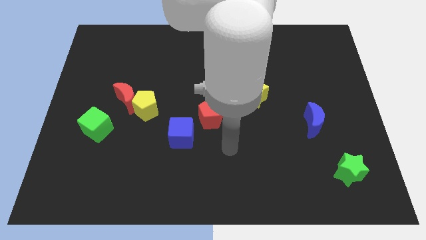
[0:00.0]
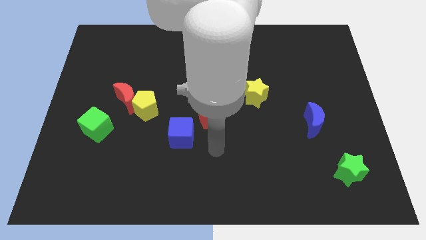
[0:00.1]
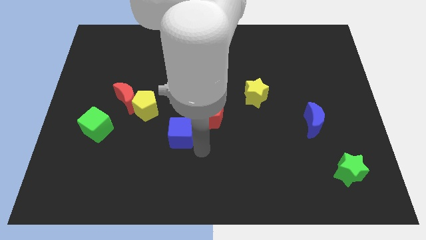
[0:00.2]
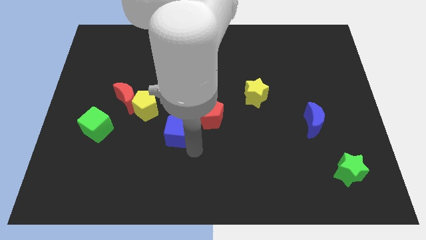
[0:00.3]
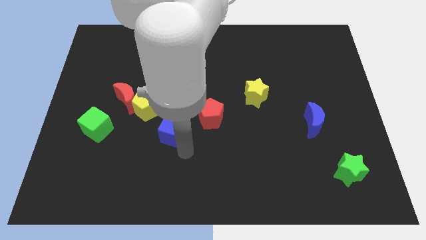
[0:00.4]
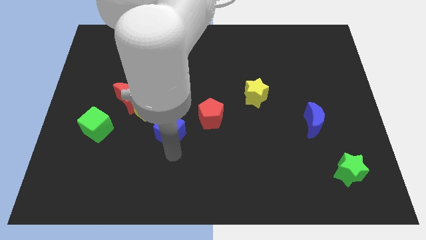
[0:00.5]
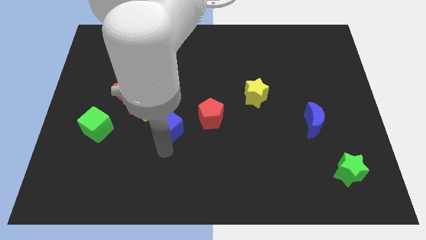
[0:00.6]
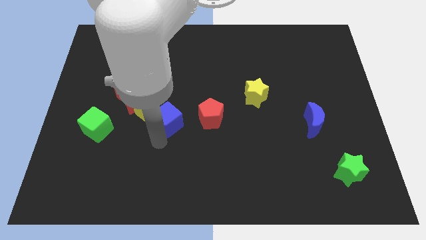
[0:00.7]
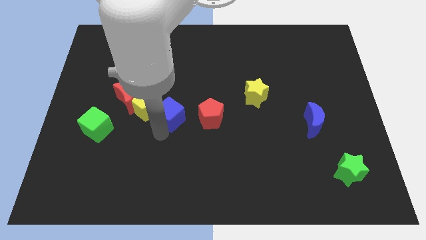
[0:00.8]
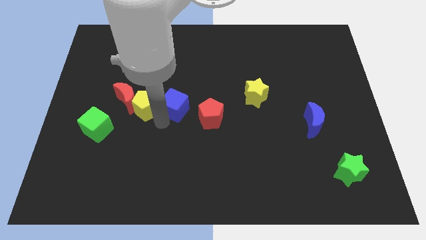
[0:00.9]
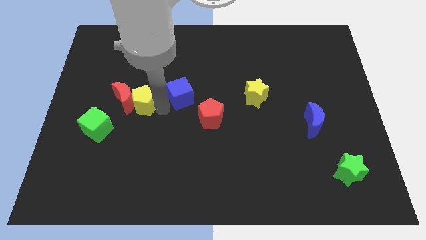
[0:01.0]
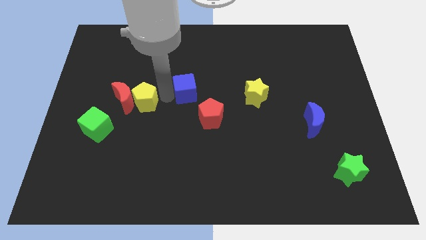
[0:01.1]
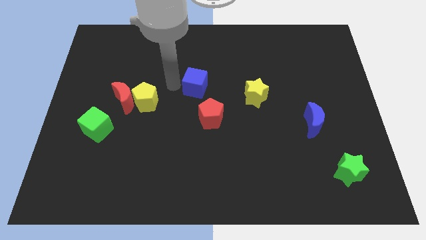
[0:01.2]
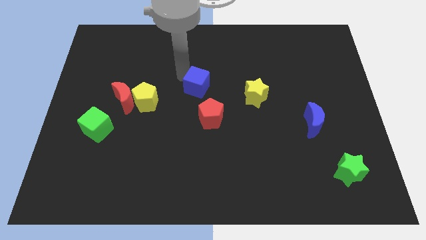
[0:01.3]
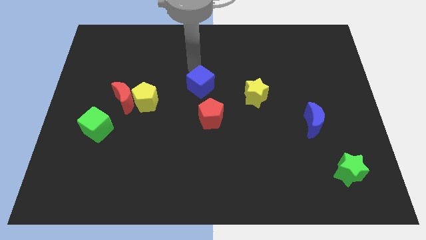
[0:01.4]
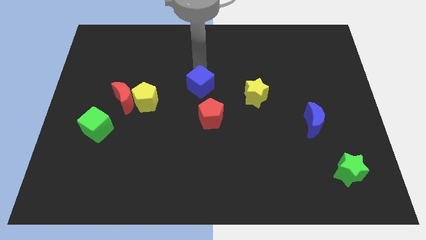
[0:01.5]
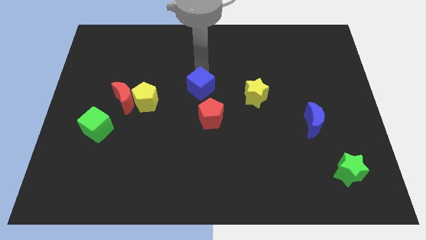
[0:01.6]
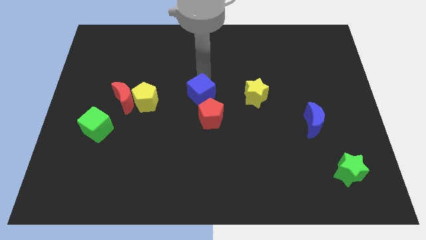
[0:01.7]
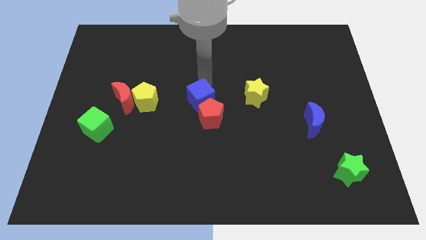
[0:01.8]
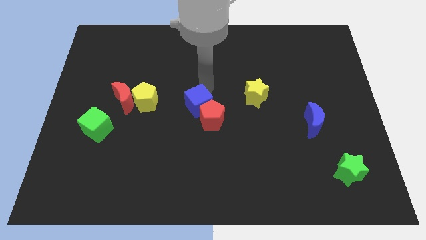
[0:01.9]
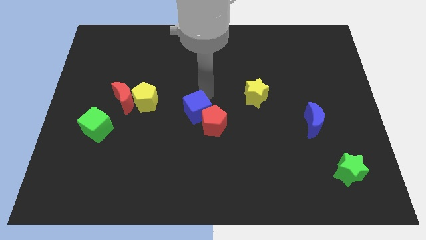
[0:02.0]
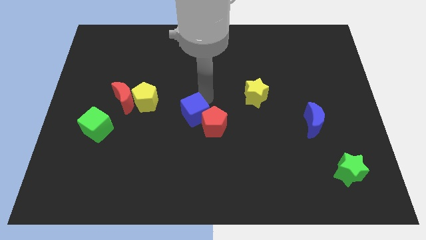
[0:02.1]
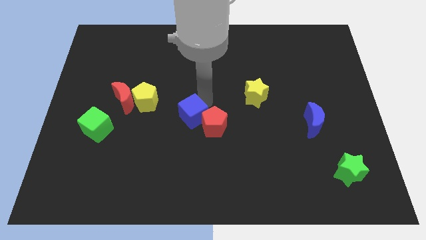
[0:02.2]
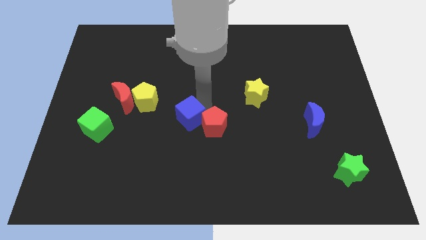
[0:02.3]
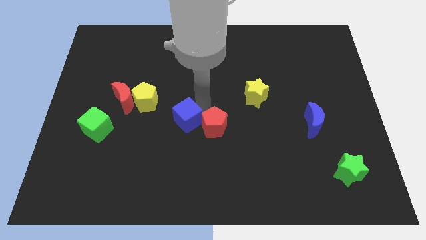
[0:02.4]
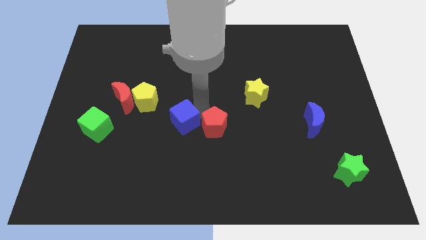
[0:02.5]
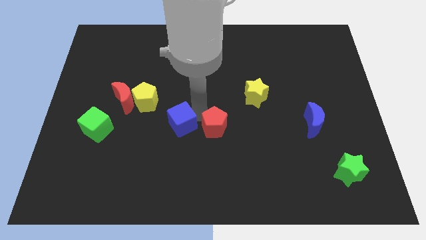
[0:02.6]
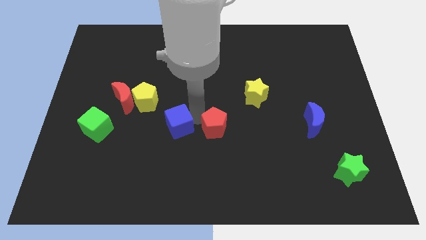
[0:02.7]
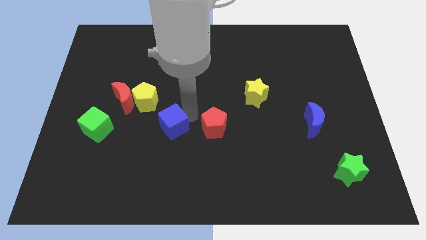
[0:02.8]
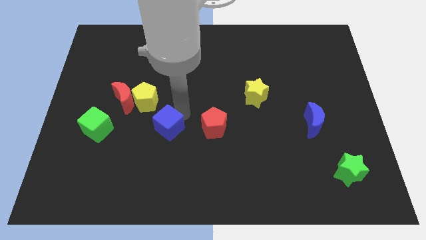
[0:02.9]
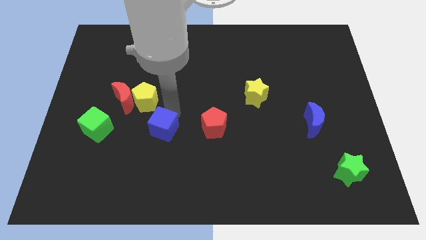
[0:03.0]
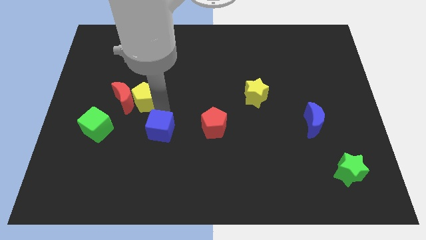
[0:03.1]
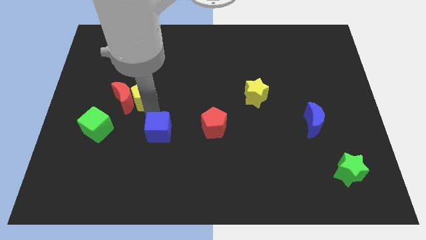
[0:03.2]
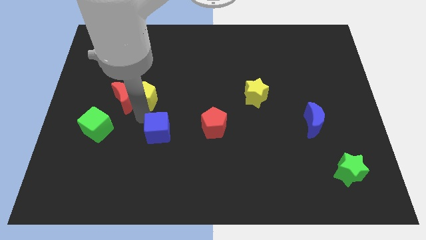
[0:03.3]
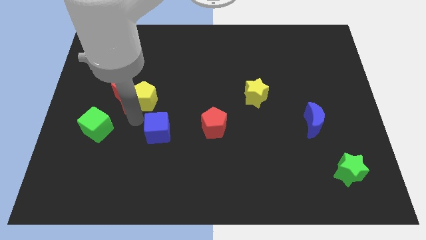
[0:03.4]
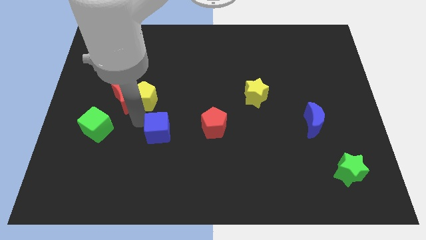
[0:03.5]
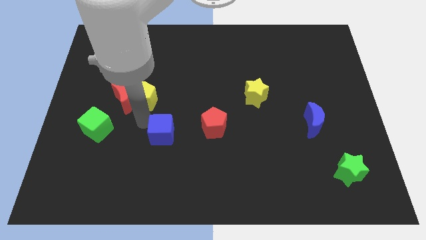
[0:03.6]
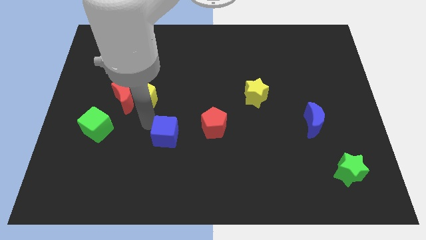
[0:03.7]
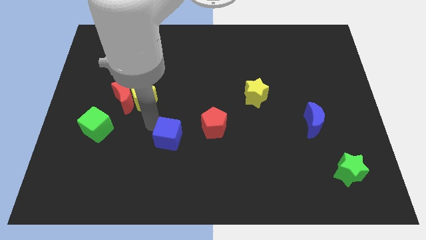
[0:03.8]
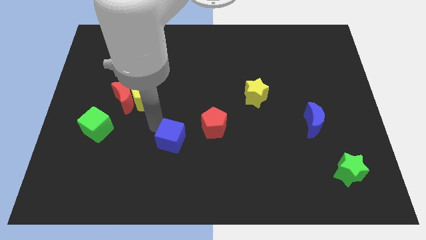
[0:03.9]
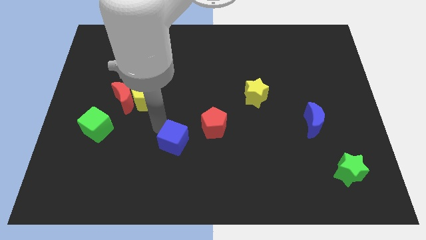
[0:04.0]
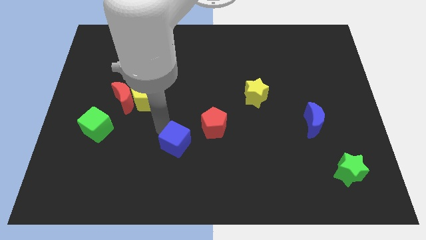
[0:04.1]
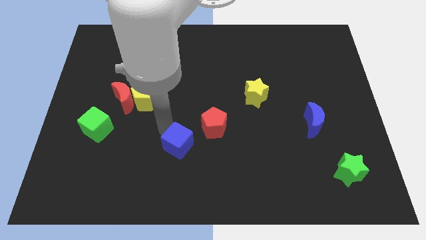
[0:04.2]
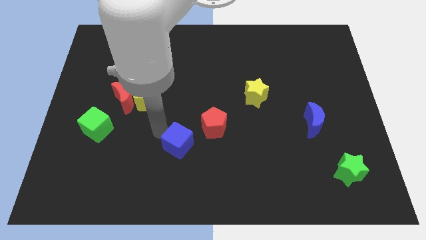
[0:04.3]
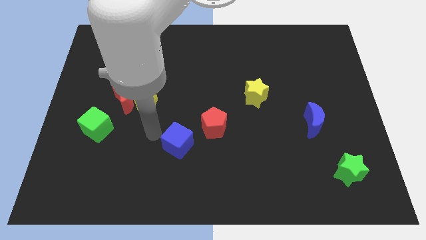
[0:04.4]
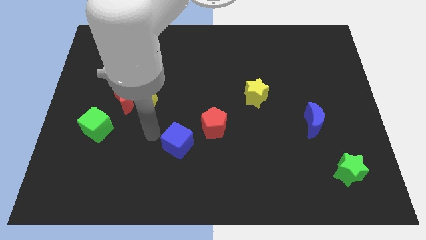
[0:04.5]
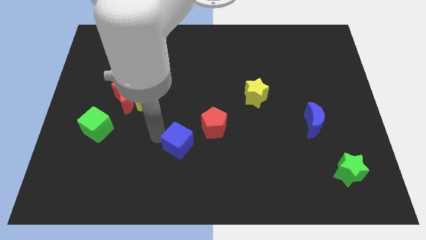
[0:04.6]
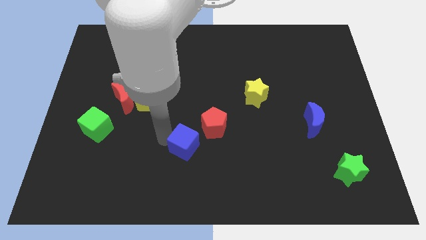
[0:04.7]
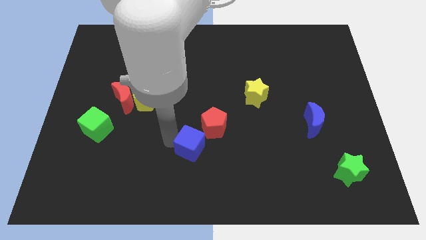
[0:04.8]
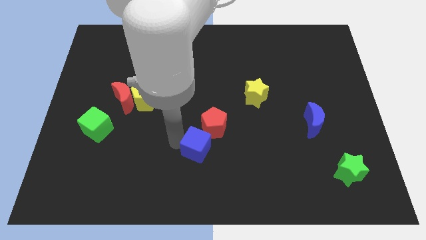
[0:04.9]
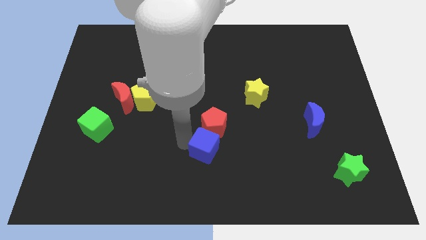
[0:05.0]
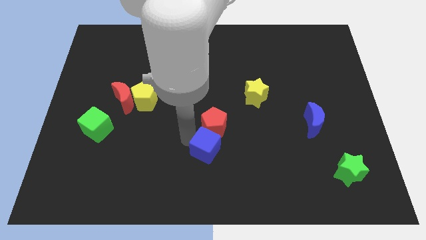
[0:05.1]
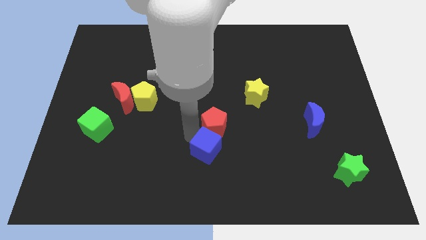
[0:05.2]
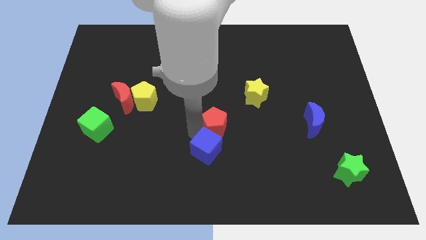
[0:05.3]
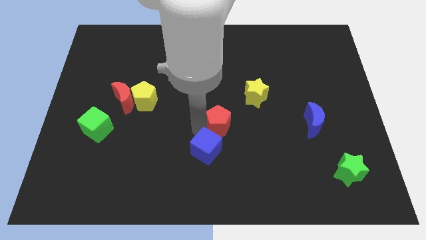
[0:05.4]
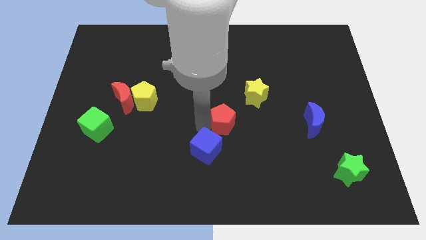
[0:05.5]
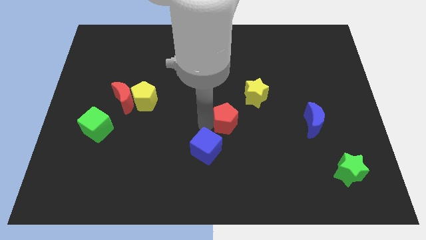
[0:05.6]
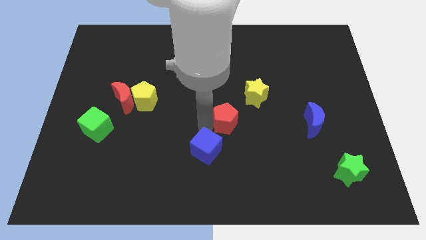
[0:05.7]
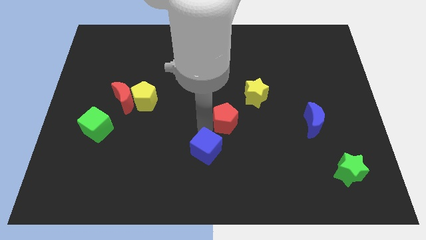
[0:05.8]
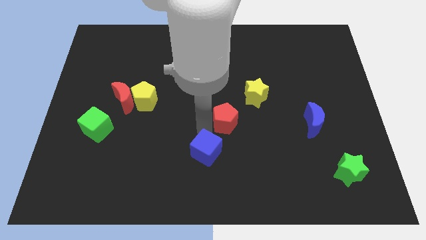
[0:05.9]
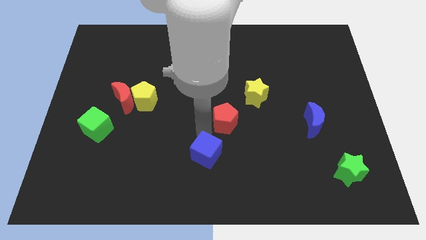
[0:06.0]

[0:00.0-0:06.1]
put the blue cube to the bottom side

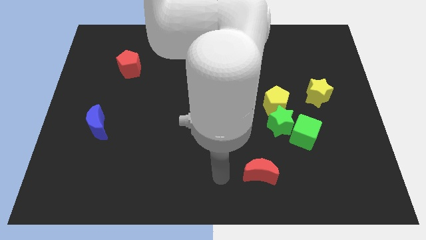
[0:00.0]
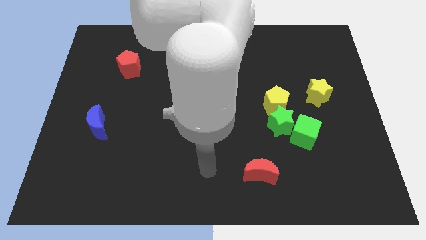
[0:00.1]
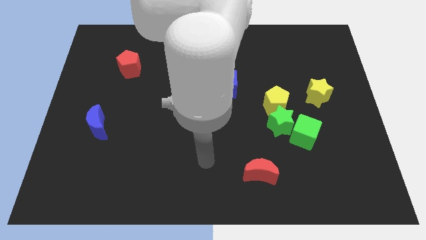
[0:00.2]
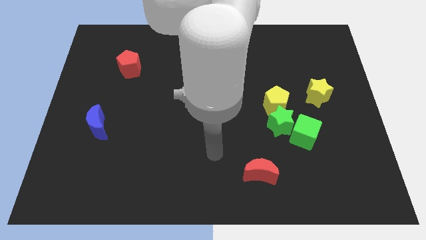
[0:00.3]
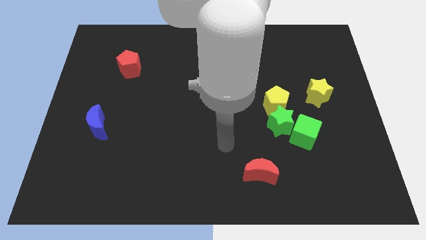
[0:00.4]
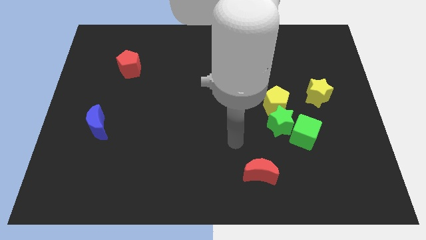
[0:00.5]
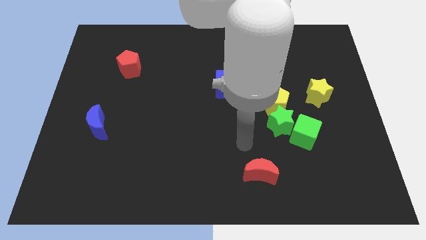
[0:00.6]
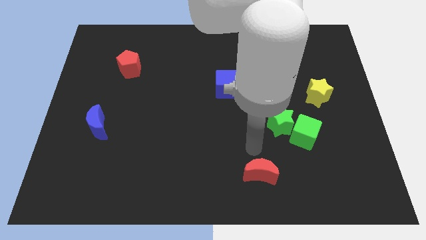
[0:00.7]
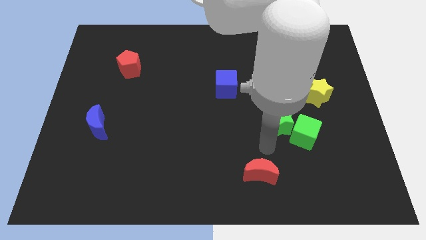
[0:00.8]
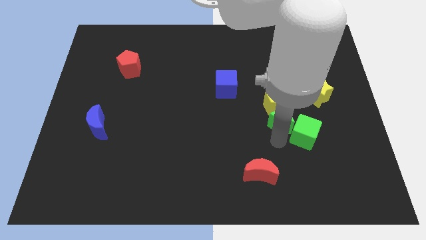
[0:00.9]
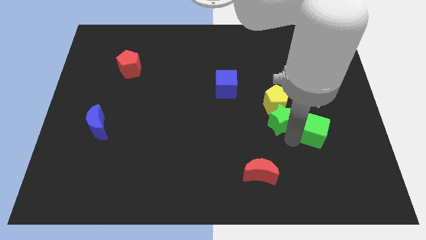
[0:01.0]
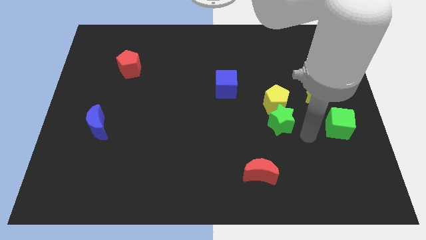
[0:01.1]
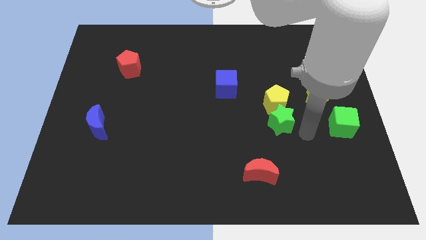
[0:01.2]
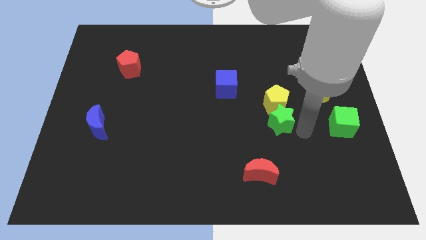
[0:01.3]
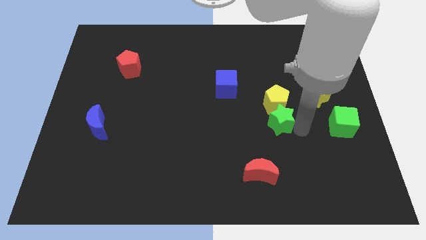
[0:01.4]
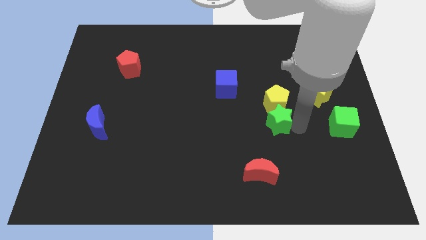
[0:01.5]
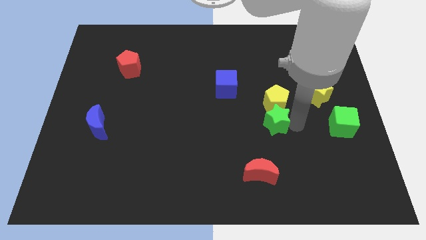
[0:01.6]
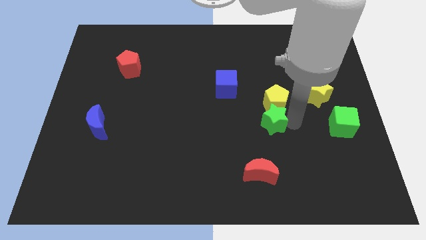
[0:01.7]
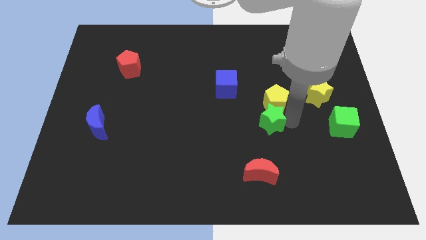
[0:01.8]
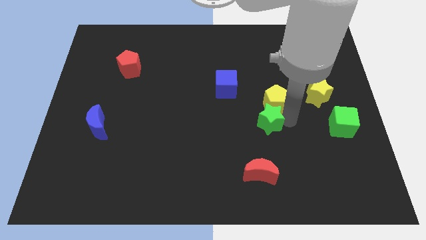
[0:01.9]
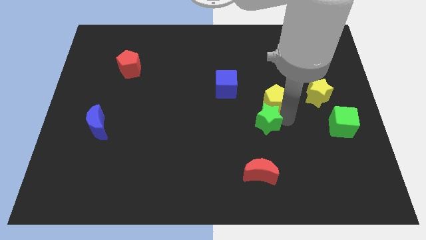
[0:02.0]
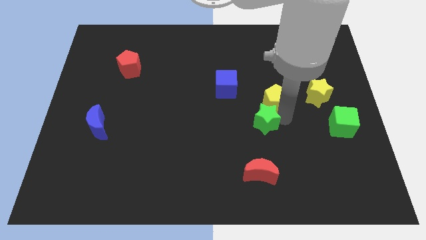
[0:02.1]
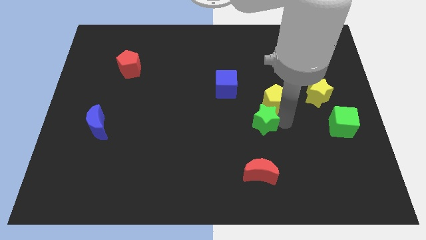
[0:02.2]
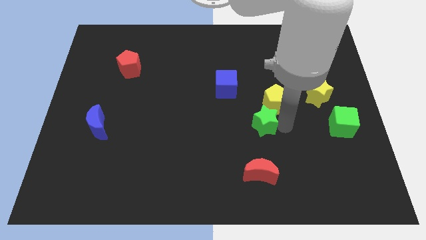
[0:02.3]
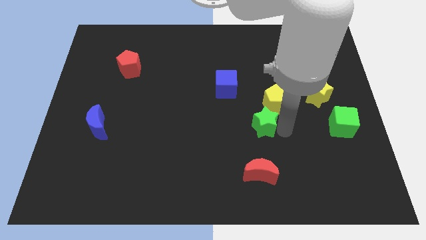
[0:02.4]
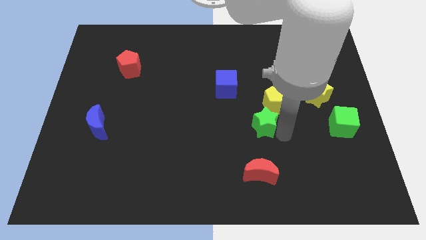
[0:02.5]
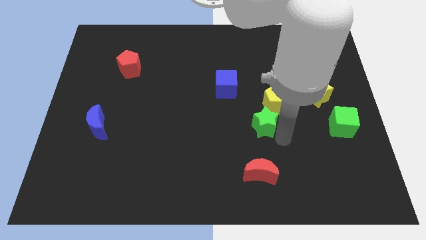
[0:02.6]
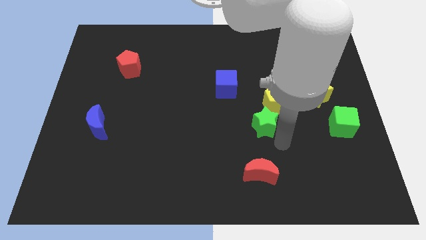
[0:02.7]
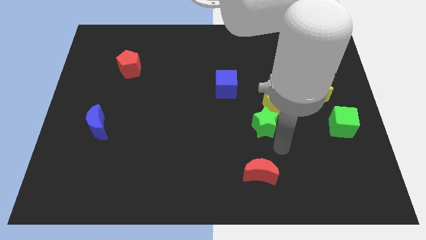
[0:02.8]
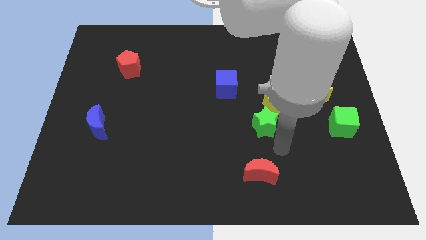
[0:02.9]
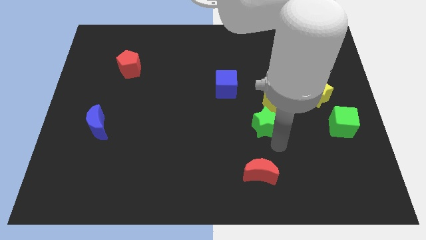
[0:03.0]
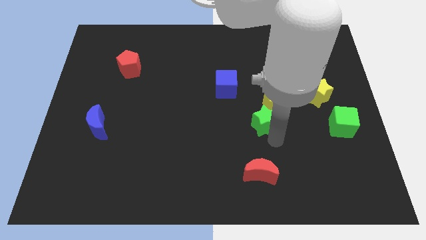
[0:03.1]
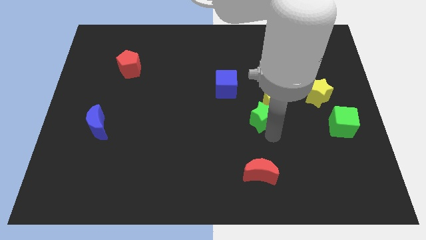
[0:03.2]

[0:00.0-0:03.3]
put the green star to the center of the board
